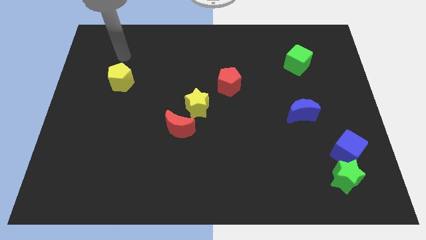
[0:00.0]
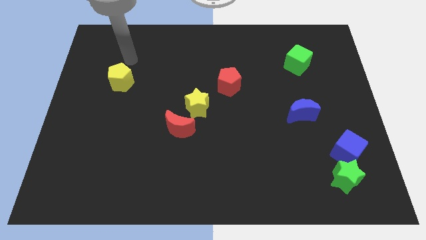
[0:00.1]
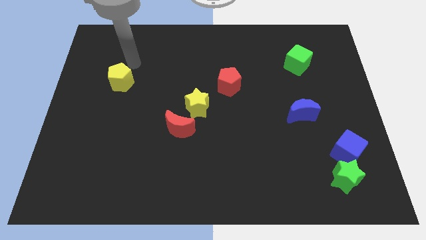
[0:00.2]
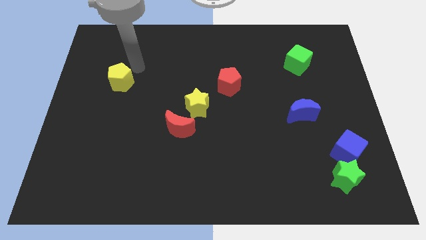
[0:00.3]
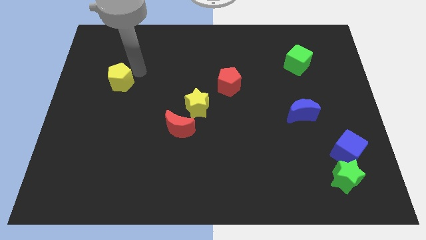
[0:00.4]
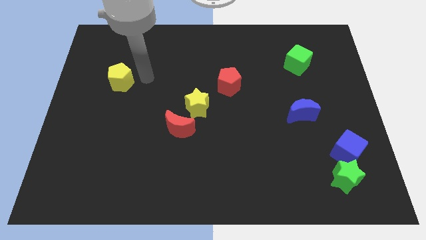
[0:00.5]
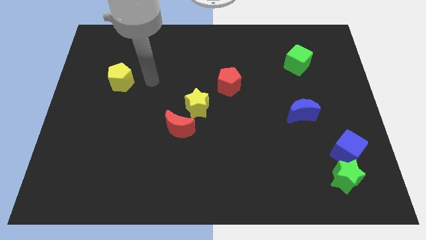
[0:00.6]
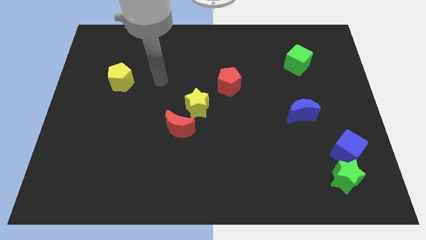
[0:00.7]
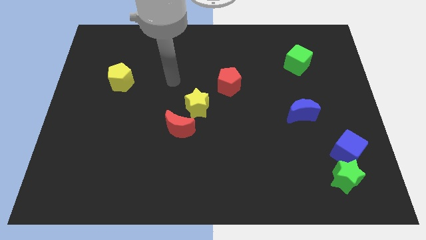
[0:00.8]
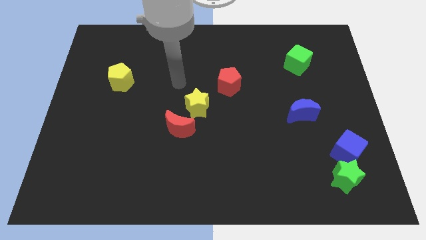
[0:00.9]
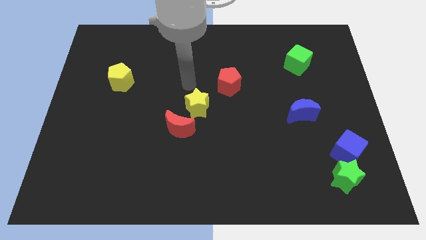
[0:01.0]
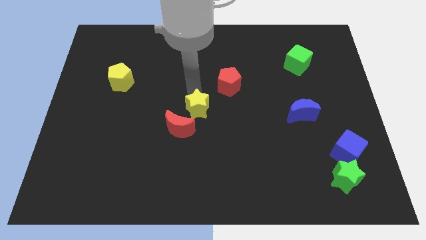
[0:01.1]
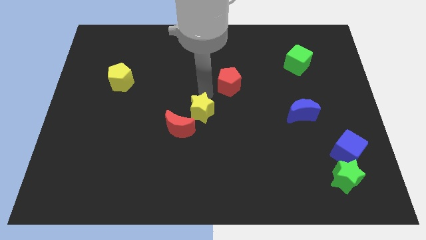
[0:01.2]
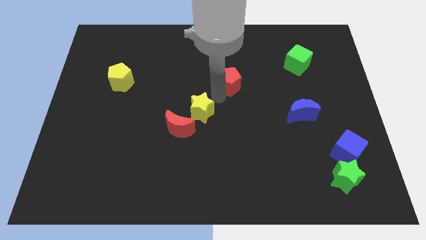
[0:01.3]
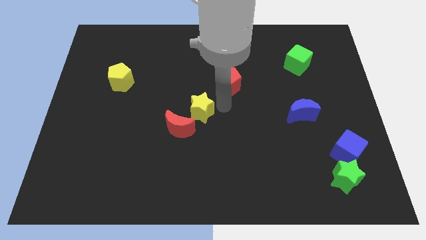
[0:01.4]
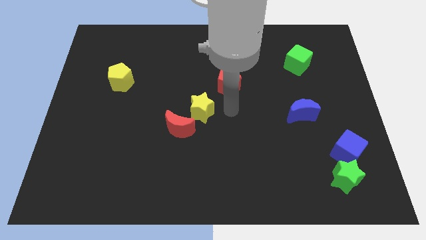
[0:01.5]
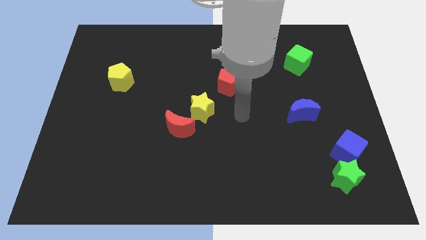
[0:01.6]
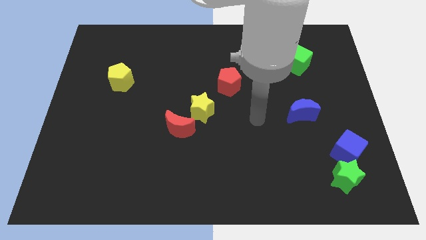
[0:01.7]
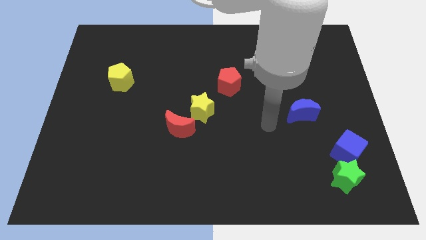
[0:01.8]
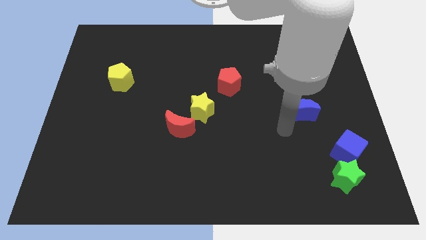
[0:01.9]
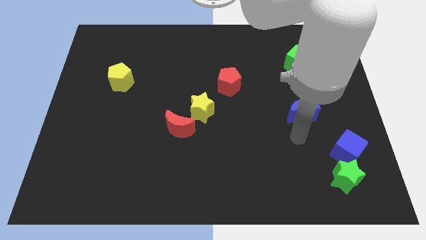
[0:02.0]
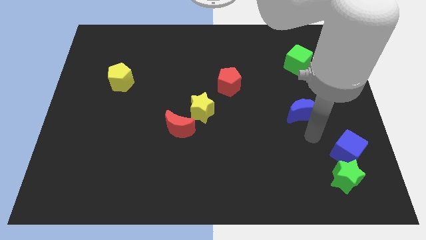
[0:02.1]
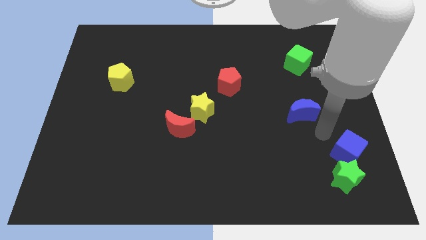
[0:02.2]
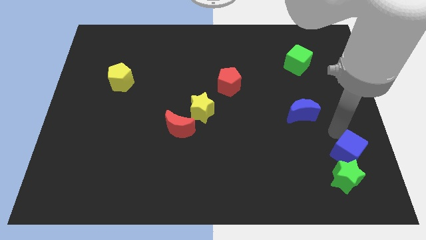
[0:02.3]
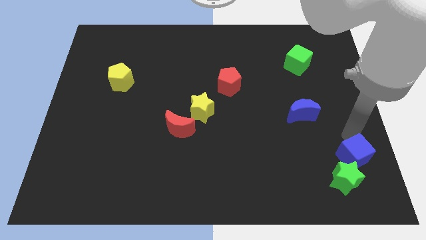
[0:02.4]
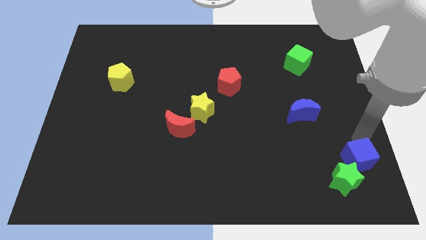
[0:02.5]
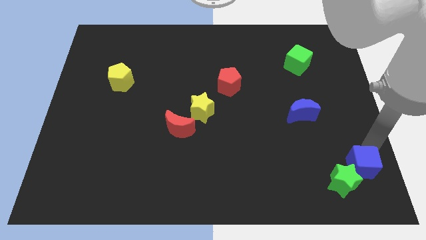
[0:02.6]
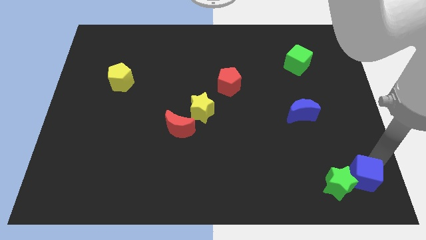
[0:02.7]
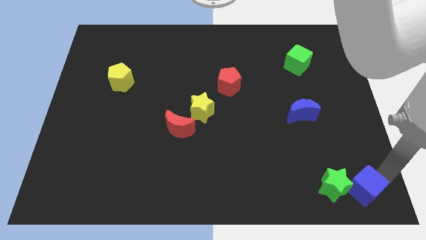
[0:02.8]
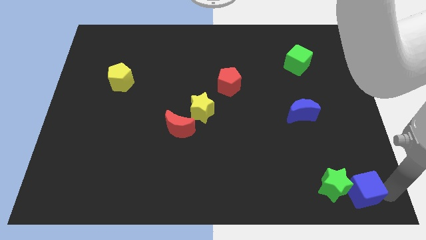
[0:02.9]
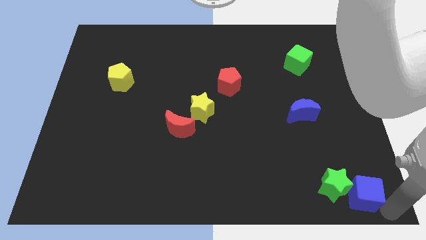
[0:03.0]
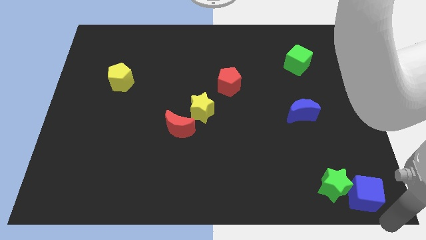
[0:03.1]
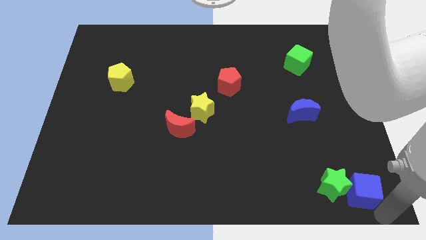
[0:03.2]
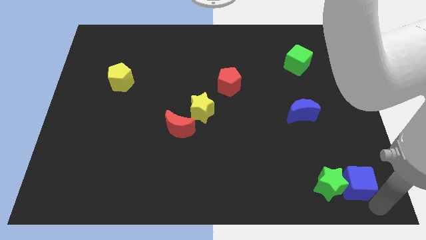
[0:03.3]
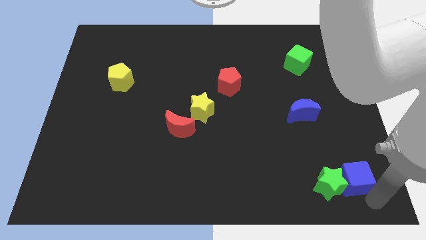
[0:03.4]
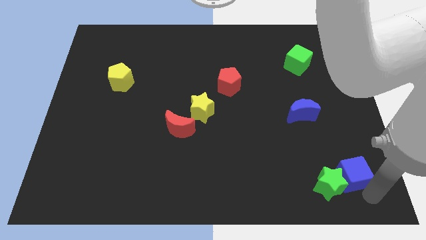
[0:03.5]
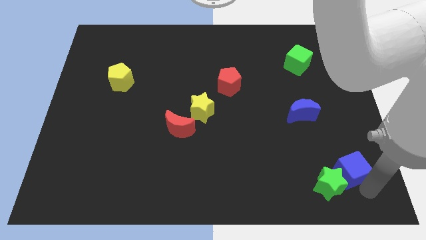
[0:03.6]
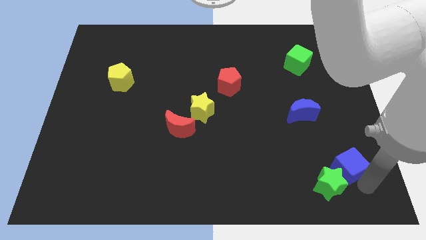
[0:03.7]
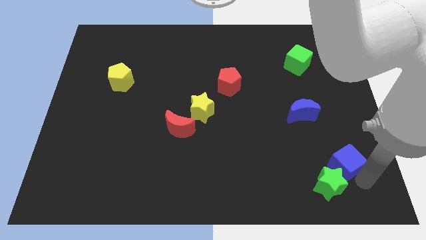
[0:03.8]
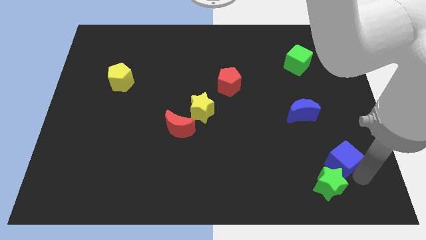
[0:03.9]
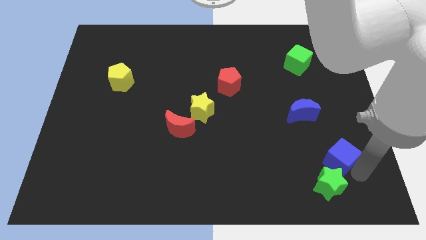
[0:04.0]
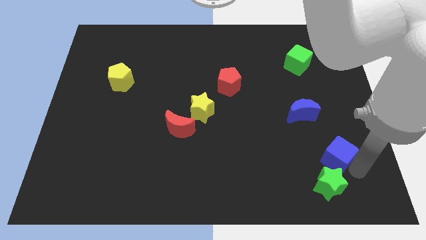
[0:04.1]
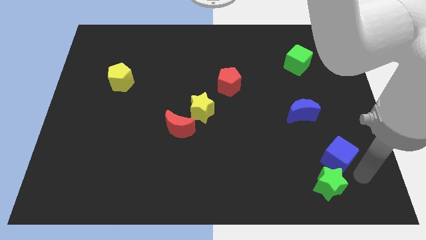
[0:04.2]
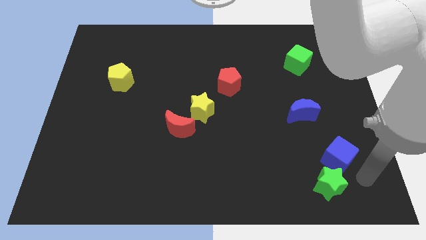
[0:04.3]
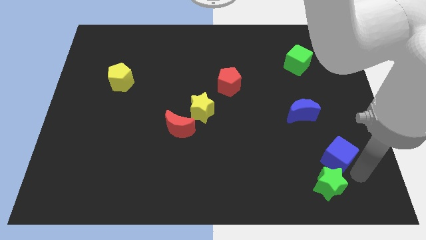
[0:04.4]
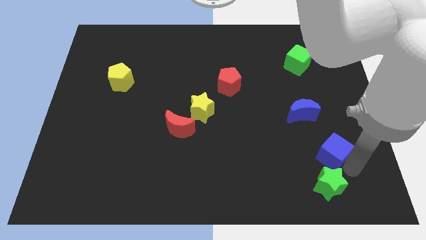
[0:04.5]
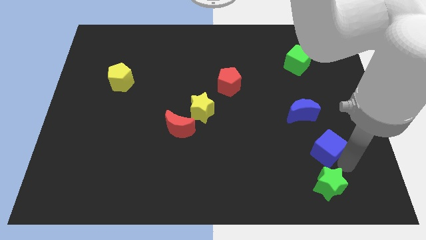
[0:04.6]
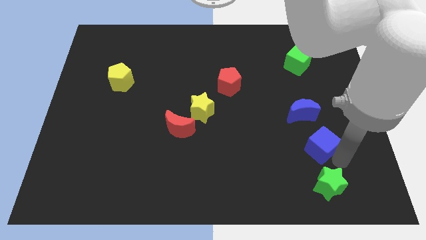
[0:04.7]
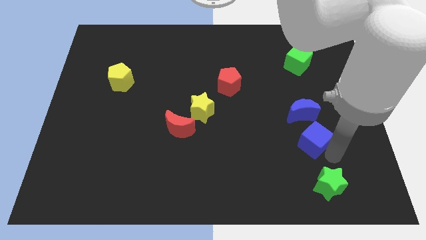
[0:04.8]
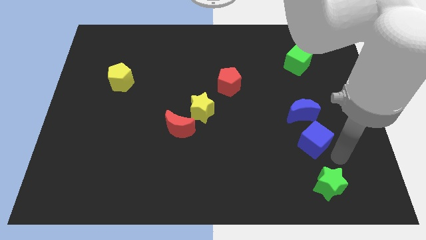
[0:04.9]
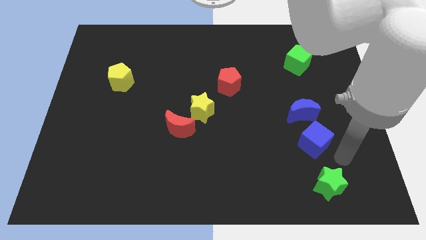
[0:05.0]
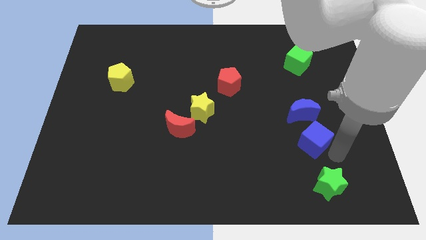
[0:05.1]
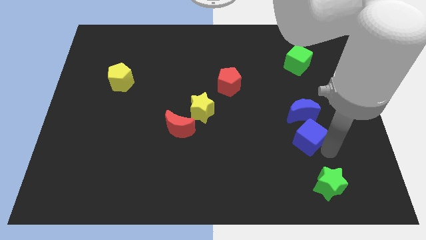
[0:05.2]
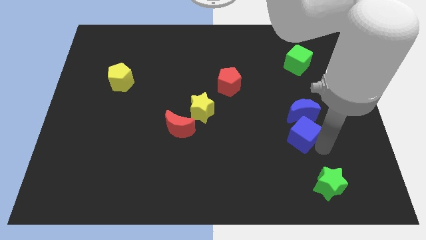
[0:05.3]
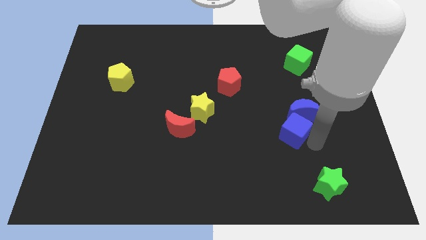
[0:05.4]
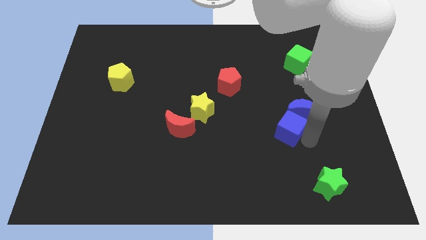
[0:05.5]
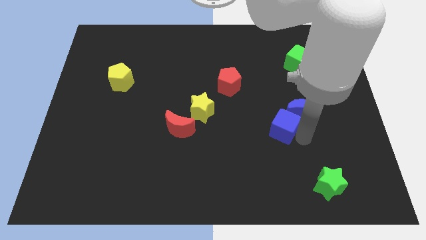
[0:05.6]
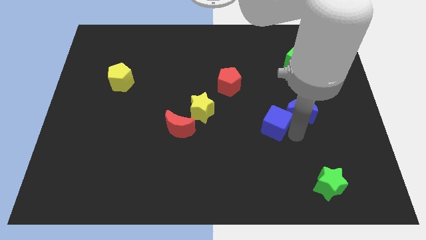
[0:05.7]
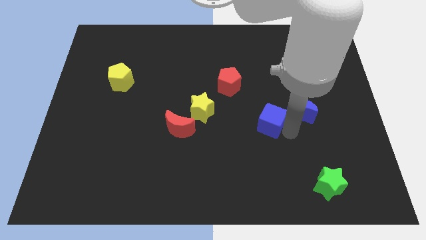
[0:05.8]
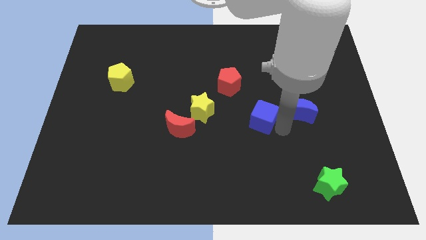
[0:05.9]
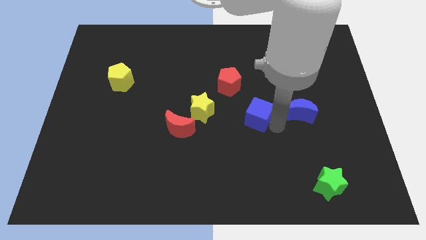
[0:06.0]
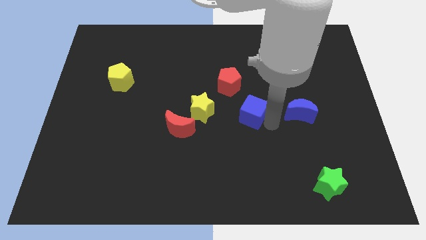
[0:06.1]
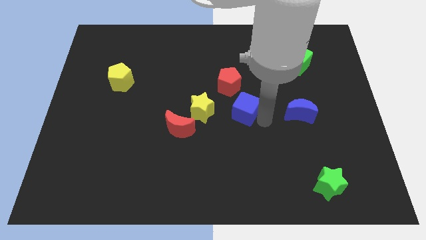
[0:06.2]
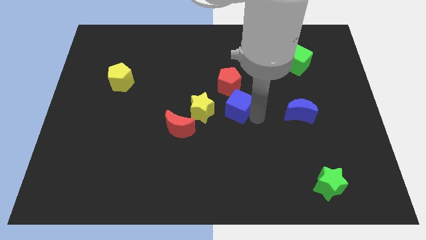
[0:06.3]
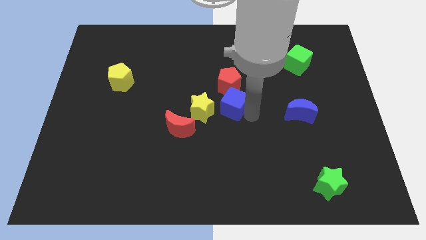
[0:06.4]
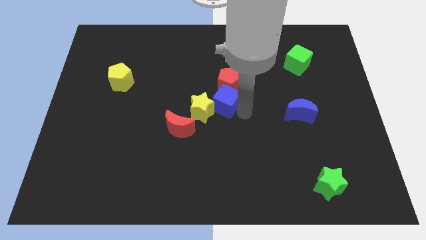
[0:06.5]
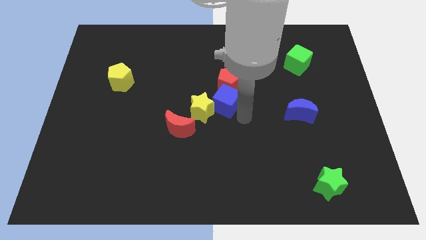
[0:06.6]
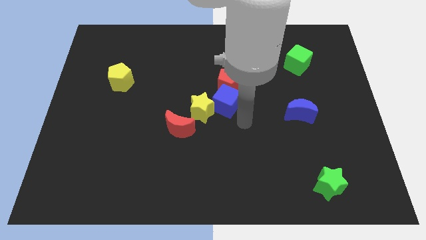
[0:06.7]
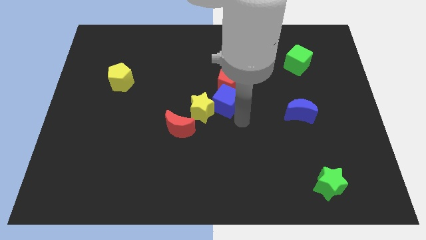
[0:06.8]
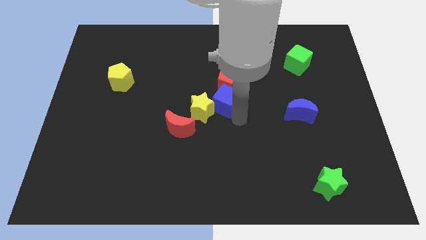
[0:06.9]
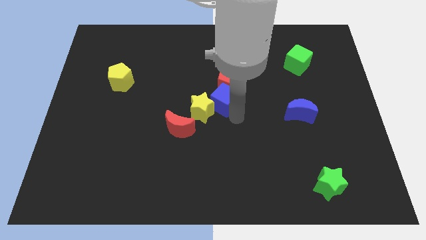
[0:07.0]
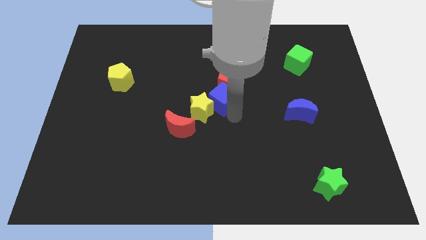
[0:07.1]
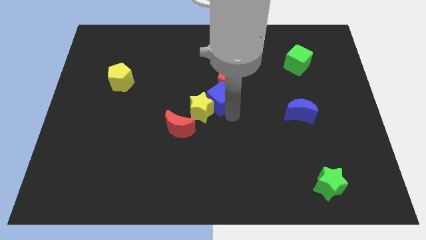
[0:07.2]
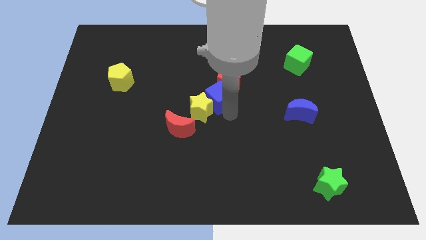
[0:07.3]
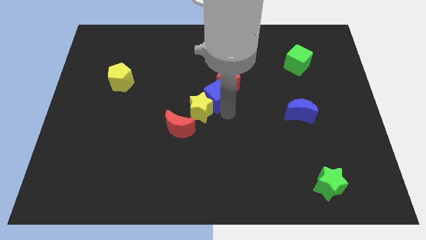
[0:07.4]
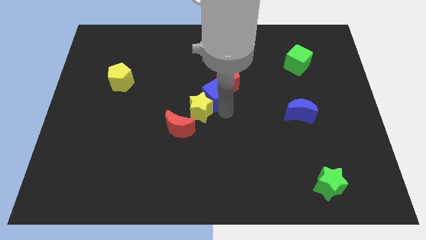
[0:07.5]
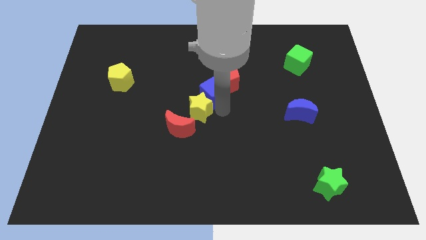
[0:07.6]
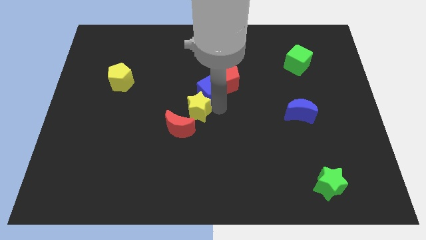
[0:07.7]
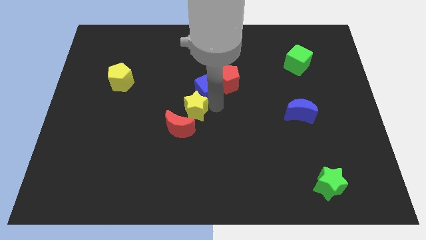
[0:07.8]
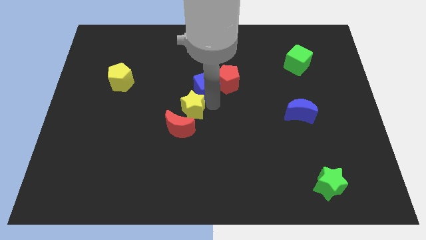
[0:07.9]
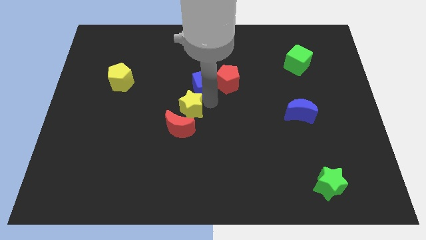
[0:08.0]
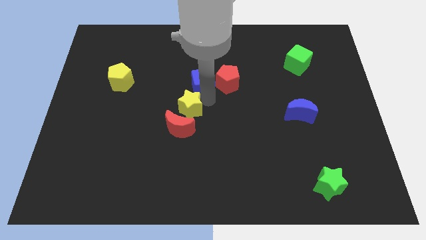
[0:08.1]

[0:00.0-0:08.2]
push the blue cube diagonally up and to the left of the red pentagon
